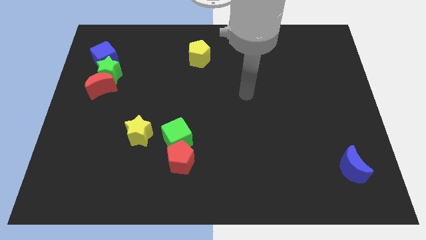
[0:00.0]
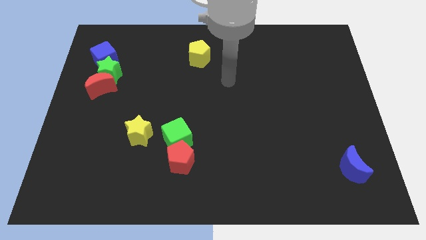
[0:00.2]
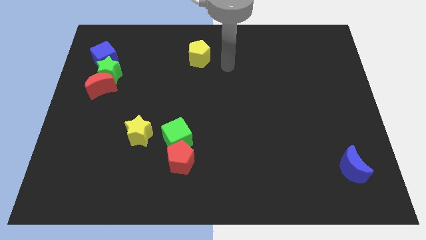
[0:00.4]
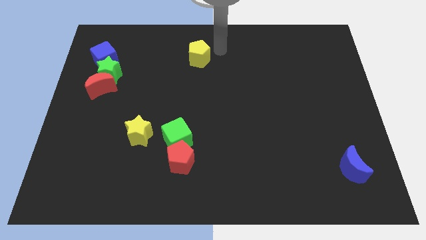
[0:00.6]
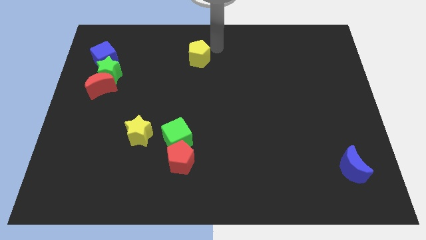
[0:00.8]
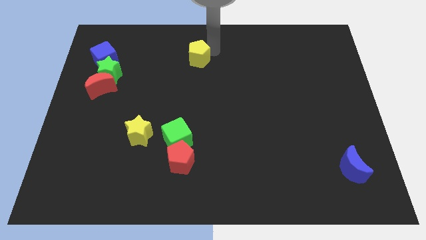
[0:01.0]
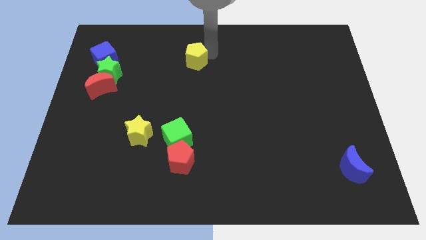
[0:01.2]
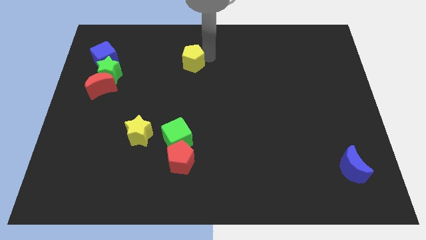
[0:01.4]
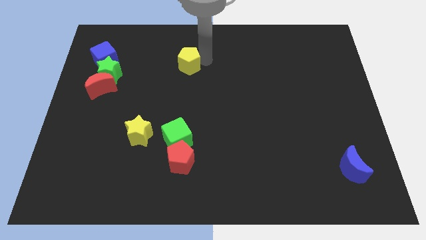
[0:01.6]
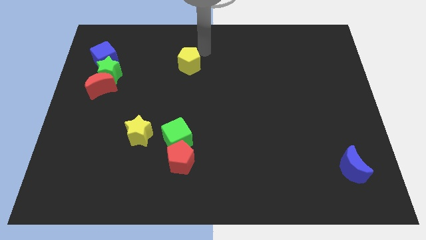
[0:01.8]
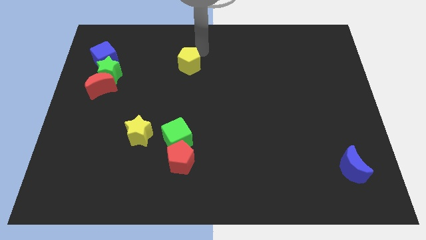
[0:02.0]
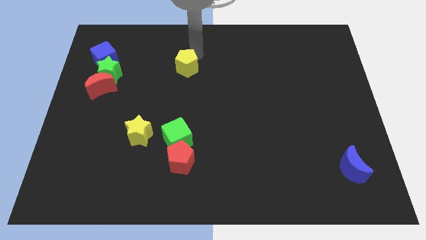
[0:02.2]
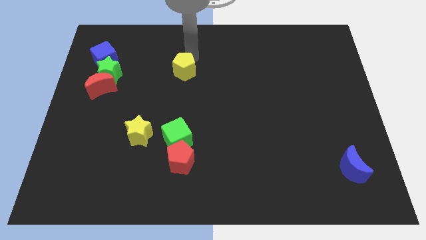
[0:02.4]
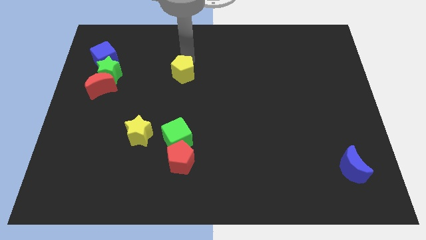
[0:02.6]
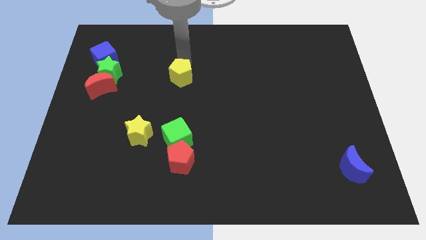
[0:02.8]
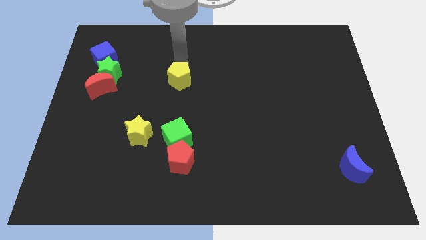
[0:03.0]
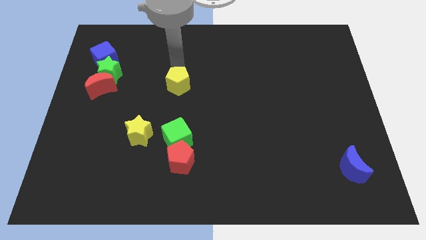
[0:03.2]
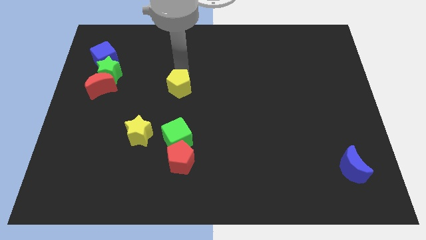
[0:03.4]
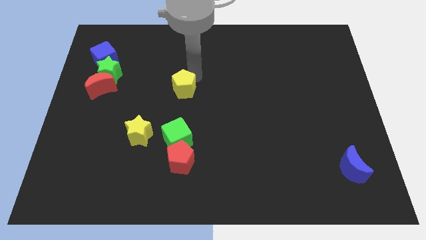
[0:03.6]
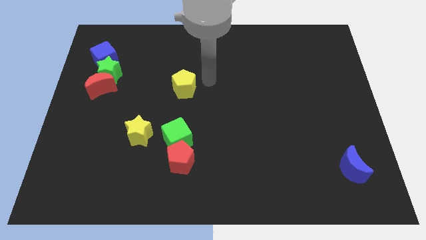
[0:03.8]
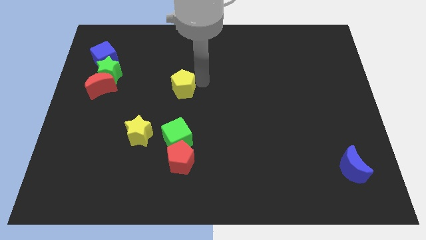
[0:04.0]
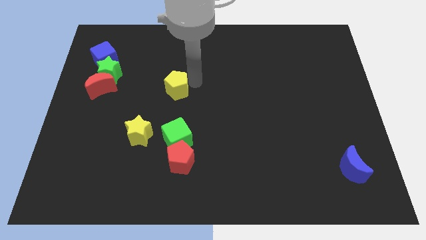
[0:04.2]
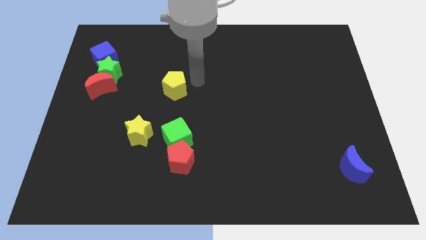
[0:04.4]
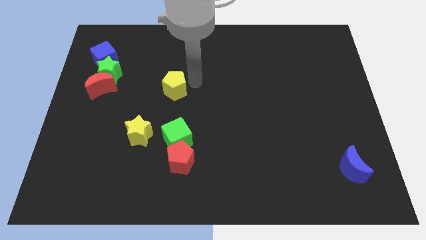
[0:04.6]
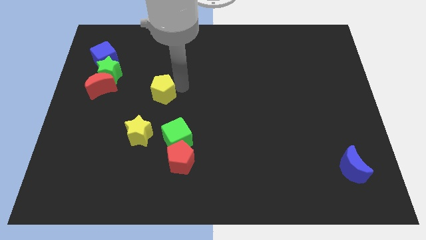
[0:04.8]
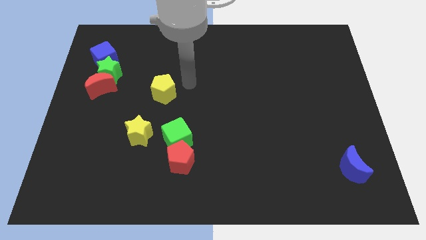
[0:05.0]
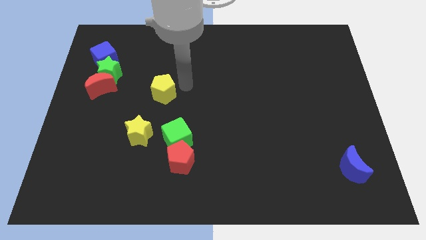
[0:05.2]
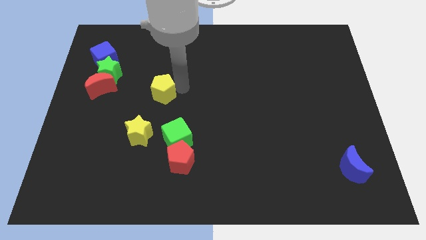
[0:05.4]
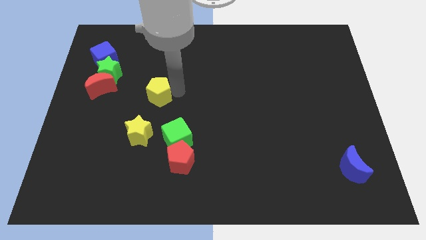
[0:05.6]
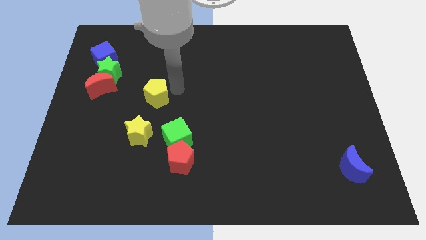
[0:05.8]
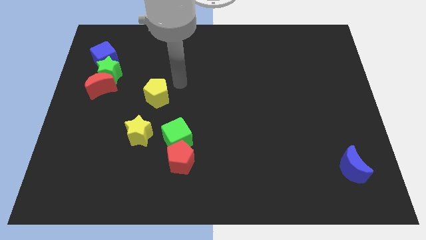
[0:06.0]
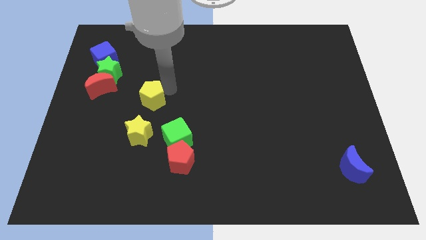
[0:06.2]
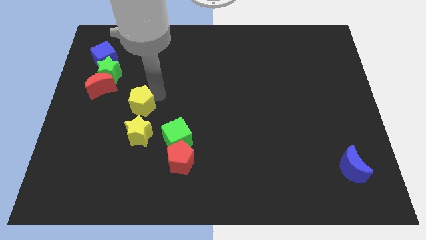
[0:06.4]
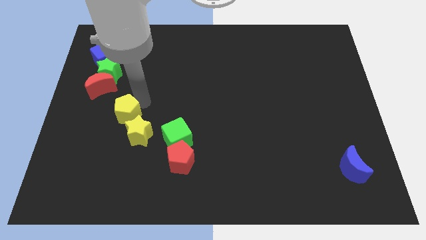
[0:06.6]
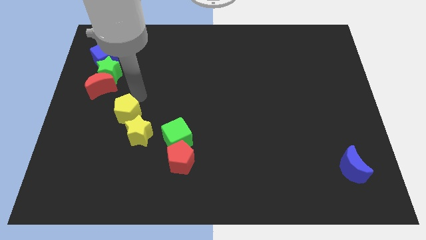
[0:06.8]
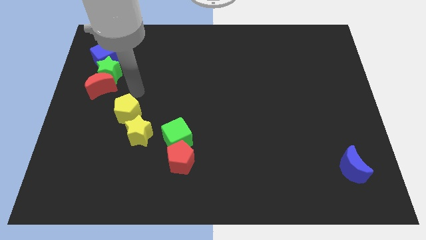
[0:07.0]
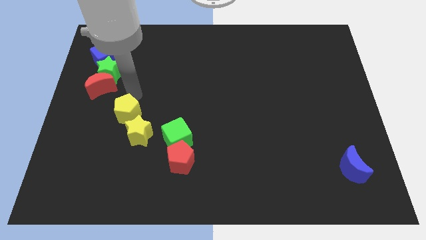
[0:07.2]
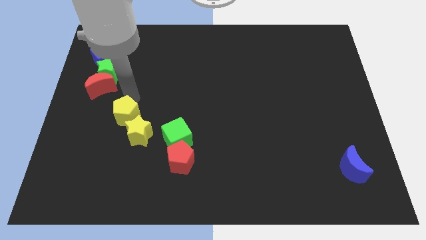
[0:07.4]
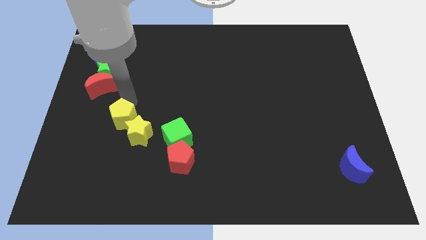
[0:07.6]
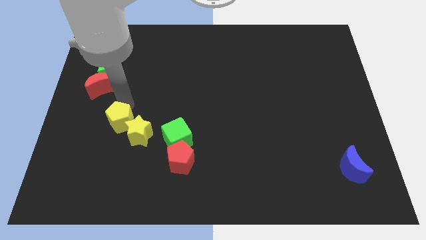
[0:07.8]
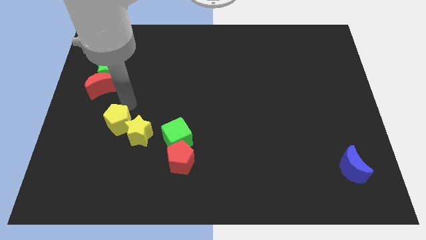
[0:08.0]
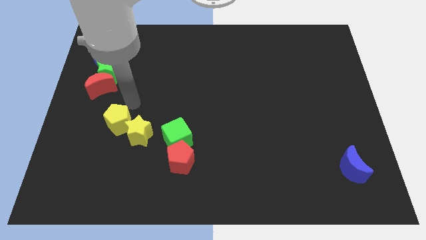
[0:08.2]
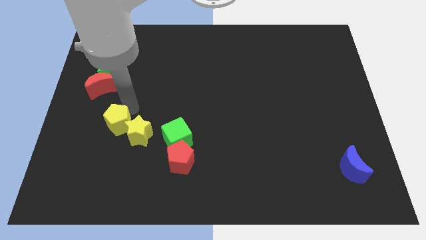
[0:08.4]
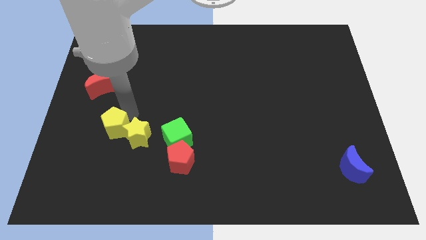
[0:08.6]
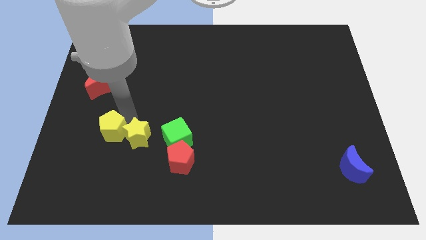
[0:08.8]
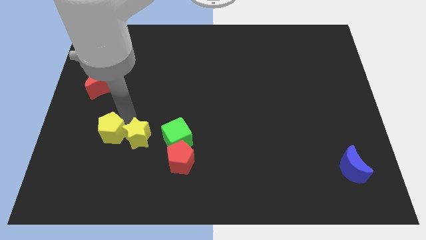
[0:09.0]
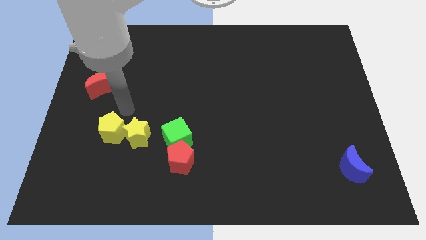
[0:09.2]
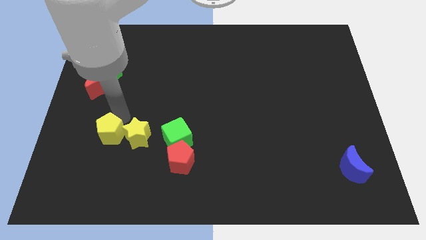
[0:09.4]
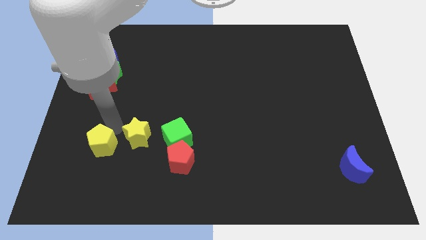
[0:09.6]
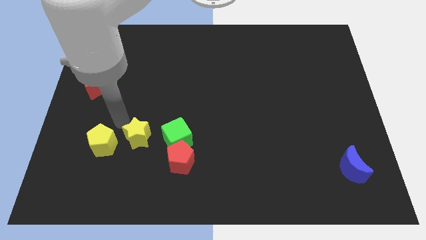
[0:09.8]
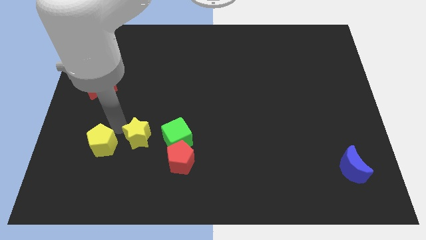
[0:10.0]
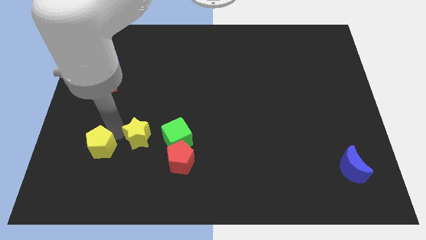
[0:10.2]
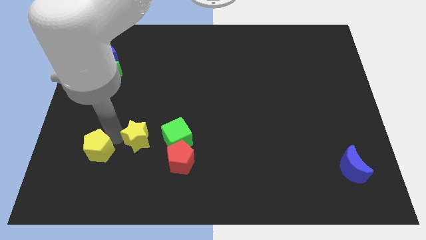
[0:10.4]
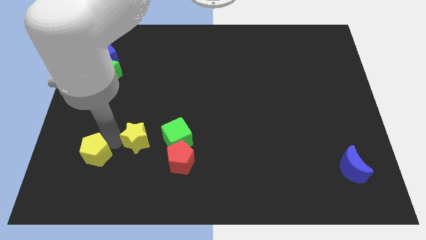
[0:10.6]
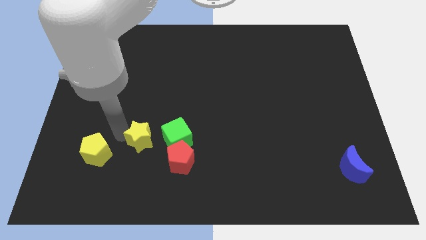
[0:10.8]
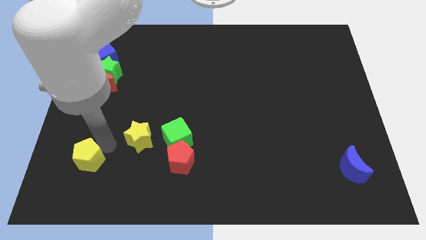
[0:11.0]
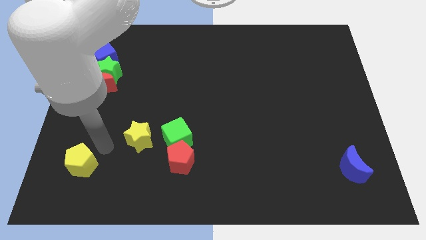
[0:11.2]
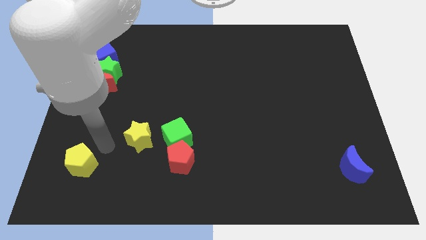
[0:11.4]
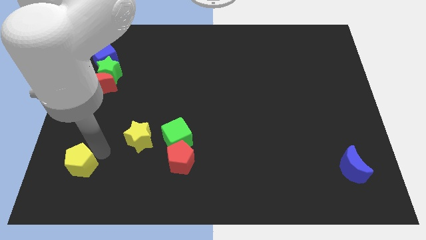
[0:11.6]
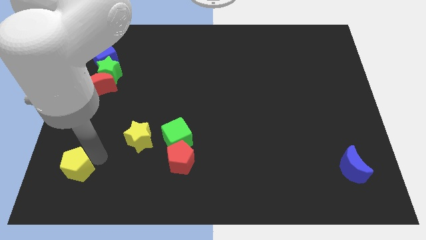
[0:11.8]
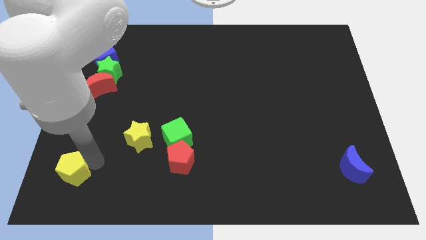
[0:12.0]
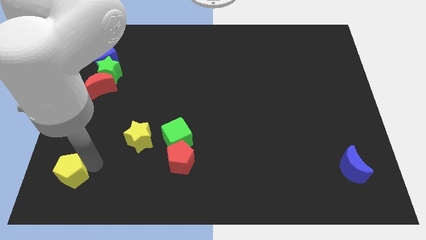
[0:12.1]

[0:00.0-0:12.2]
slide the yellow pentagon to the bottom left of the board

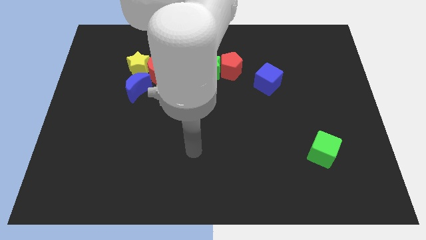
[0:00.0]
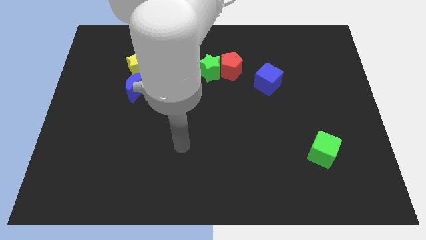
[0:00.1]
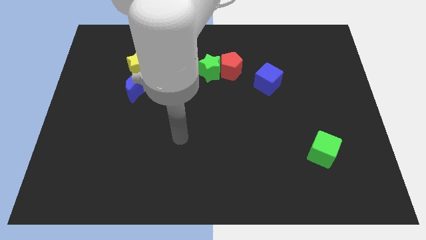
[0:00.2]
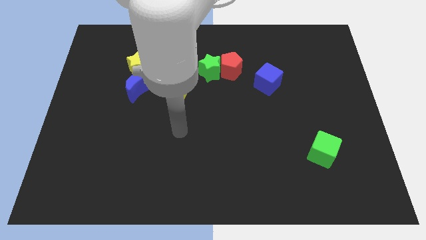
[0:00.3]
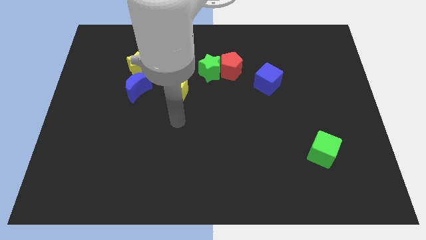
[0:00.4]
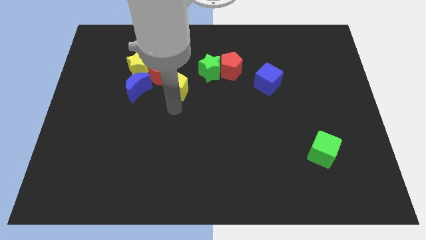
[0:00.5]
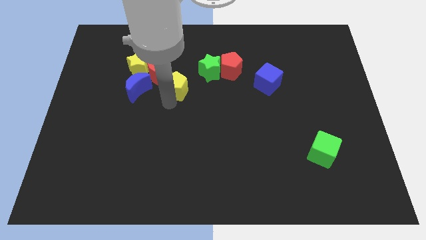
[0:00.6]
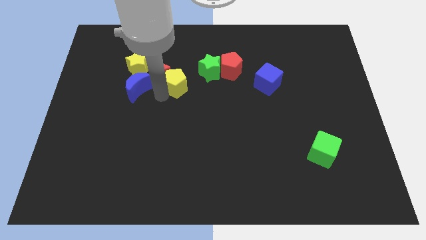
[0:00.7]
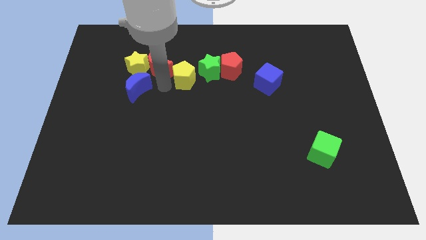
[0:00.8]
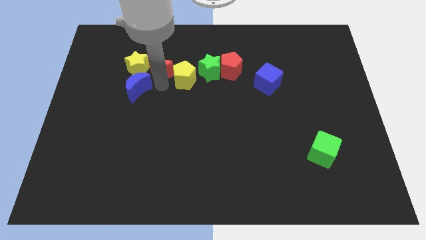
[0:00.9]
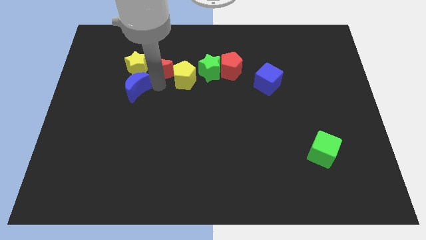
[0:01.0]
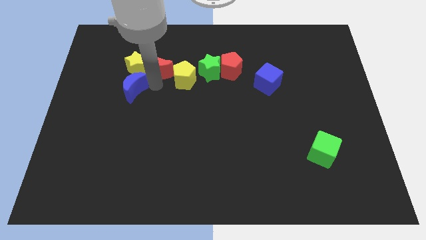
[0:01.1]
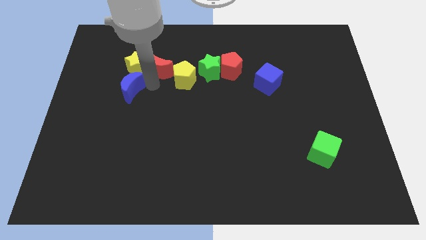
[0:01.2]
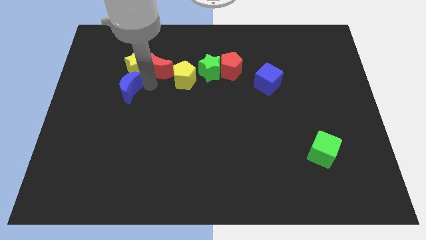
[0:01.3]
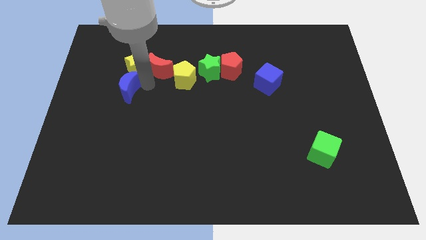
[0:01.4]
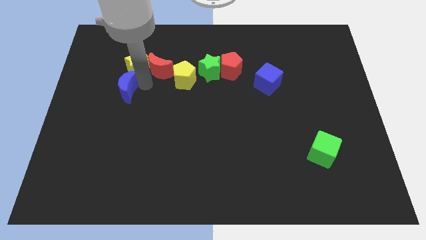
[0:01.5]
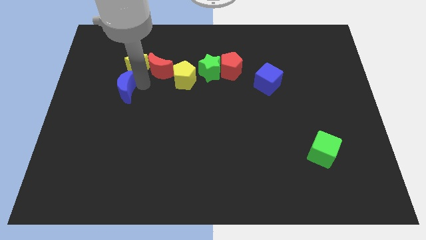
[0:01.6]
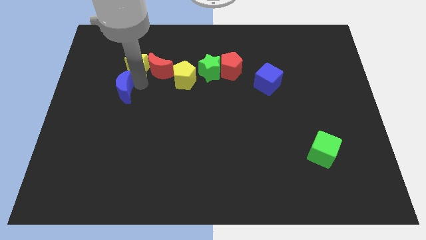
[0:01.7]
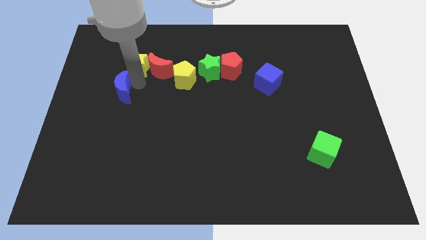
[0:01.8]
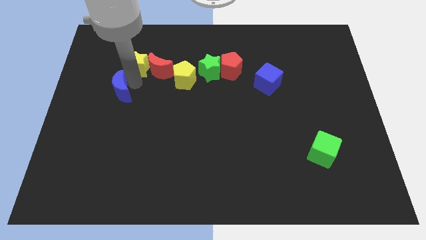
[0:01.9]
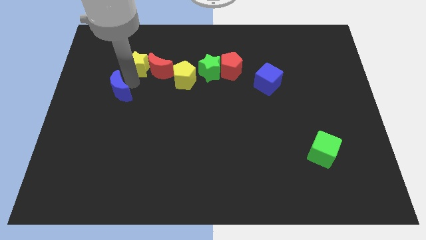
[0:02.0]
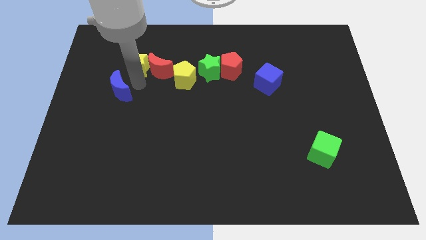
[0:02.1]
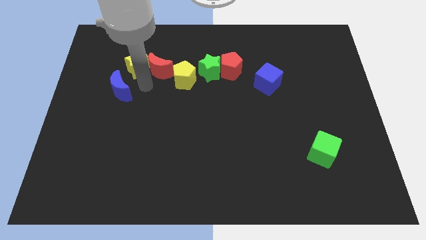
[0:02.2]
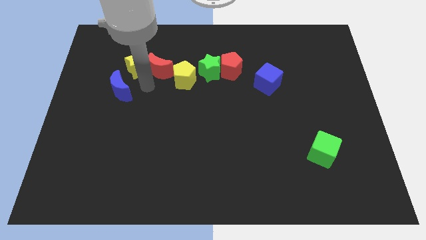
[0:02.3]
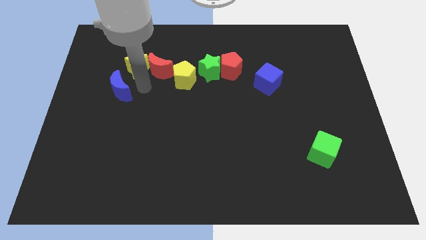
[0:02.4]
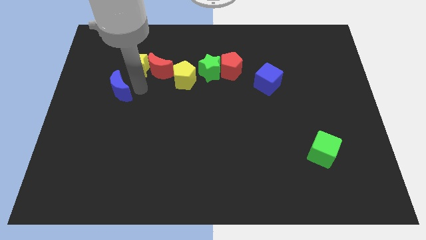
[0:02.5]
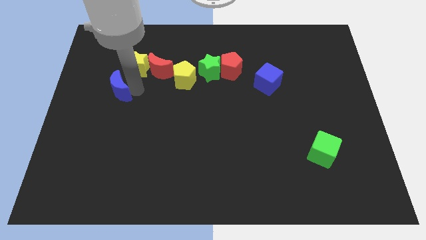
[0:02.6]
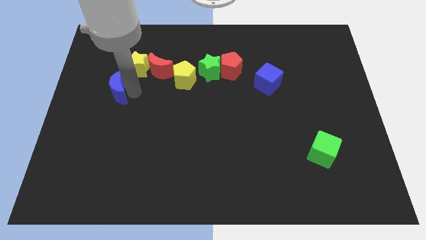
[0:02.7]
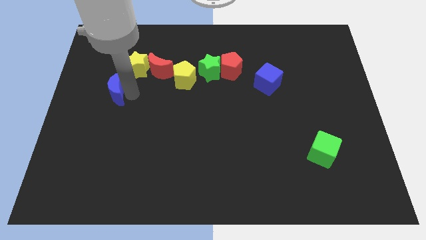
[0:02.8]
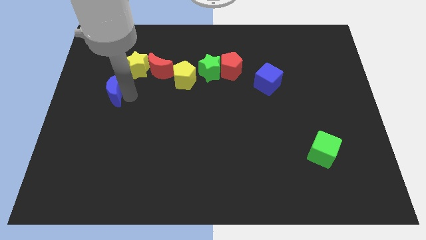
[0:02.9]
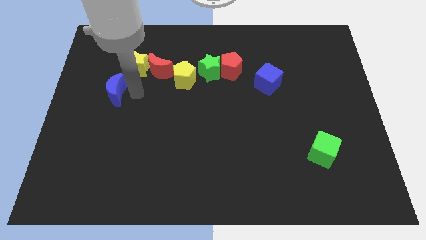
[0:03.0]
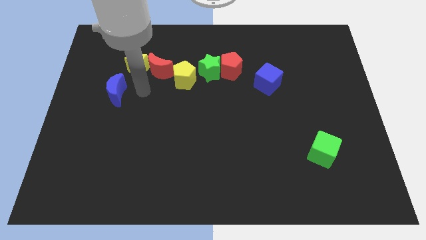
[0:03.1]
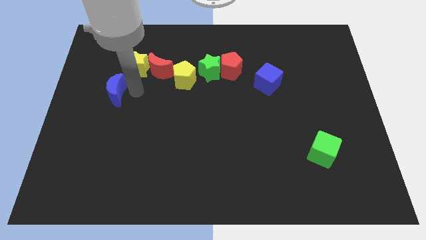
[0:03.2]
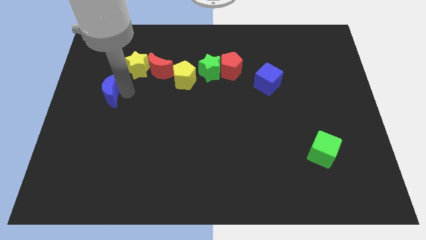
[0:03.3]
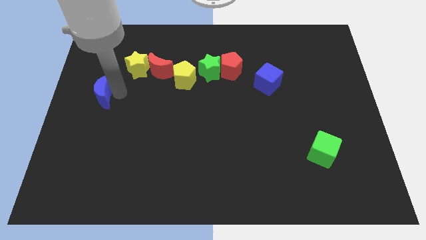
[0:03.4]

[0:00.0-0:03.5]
slide the blue moon to the center left
